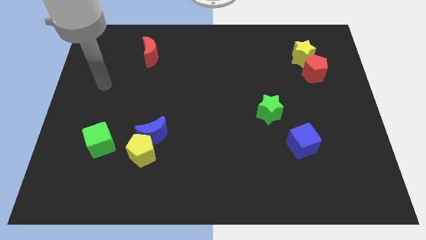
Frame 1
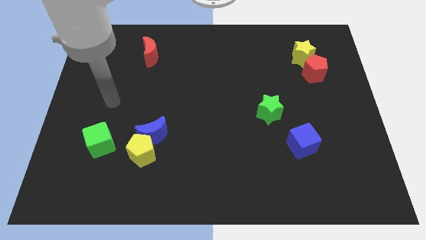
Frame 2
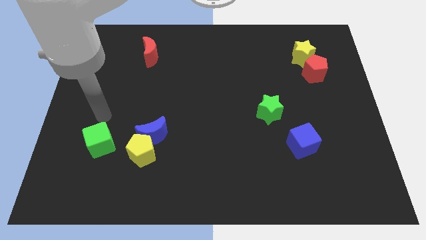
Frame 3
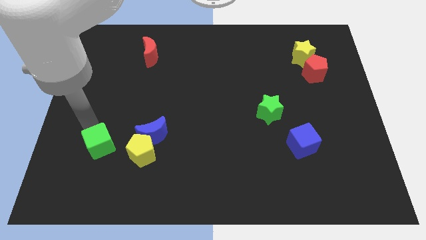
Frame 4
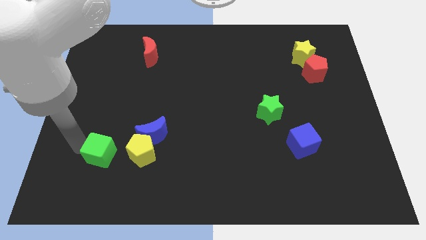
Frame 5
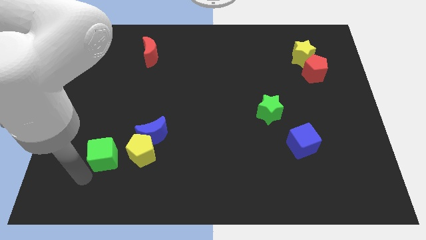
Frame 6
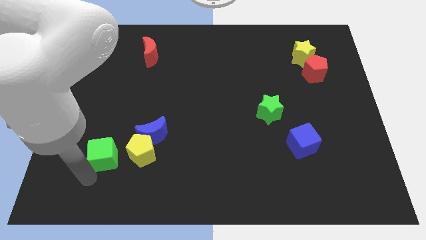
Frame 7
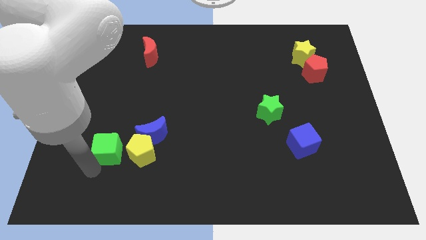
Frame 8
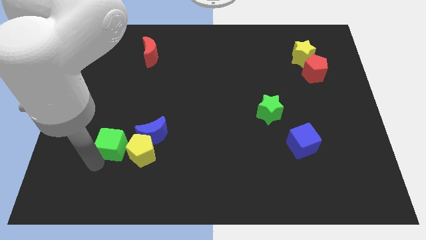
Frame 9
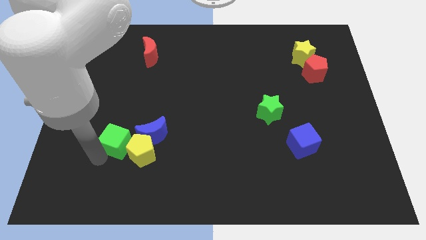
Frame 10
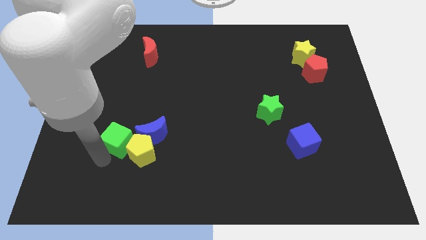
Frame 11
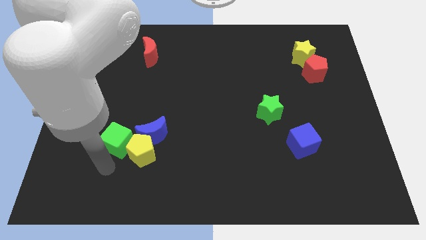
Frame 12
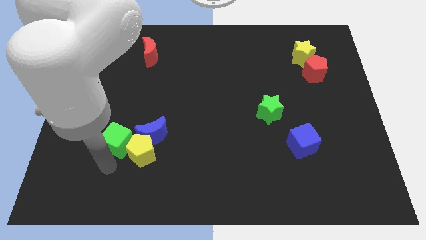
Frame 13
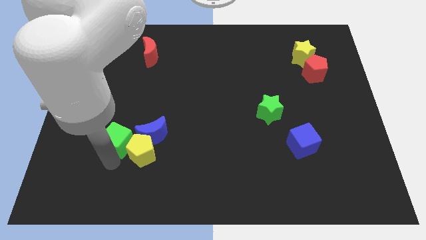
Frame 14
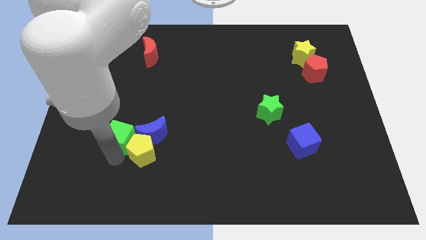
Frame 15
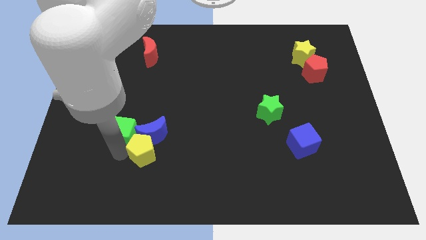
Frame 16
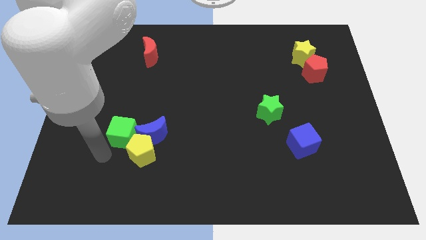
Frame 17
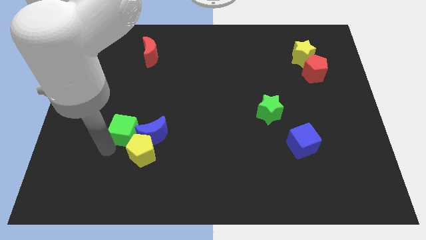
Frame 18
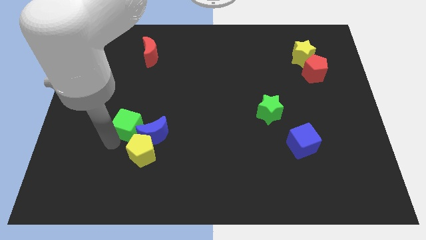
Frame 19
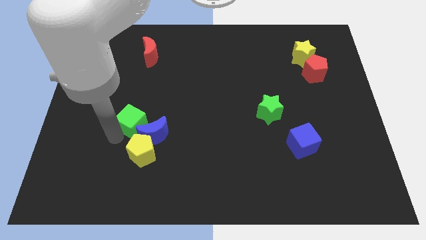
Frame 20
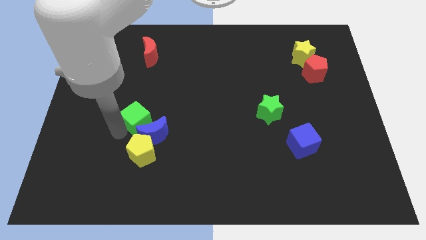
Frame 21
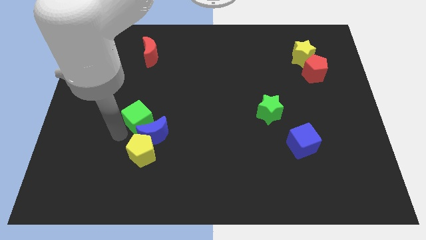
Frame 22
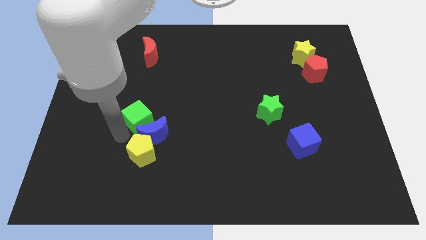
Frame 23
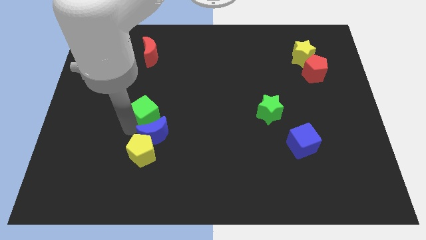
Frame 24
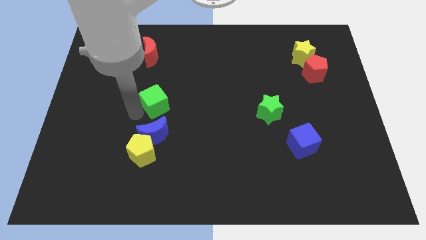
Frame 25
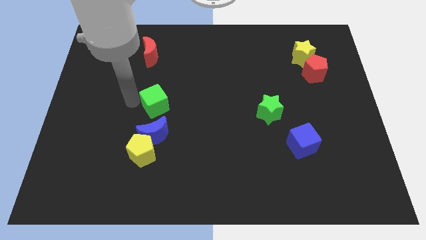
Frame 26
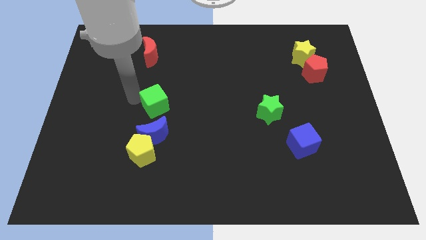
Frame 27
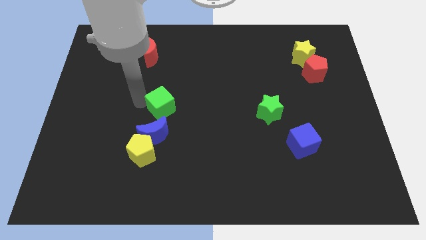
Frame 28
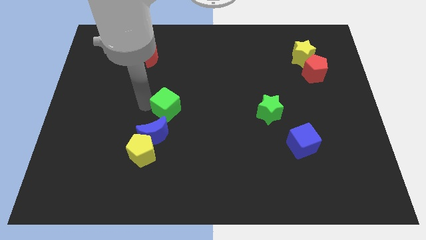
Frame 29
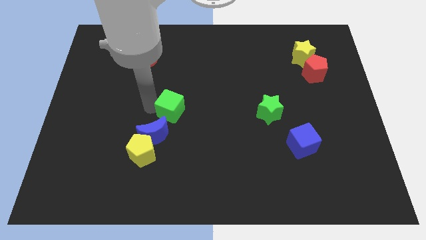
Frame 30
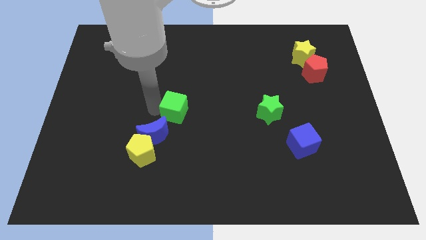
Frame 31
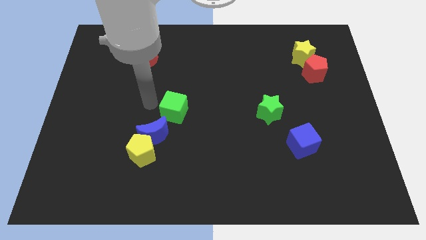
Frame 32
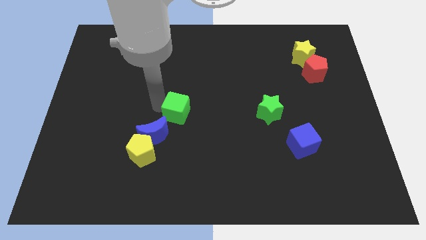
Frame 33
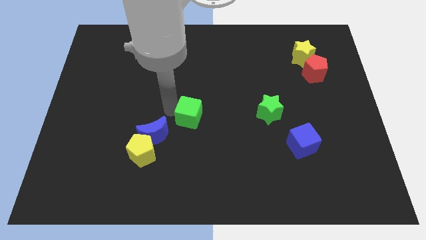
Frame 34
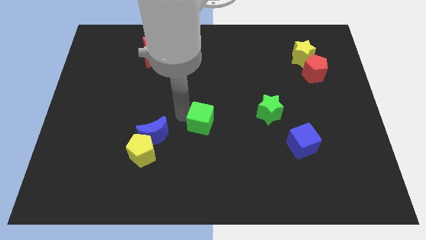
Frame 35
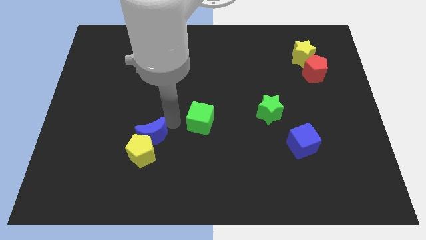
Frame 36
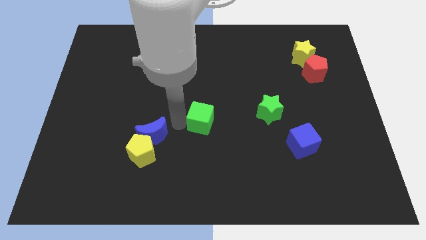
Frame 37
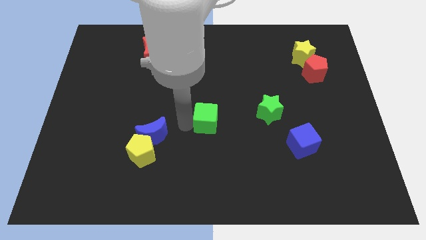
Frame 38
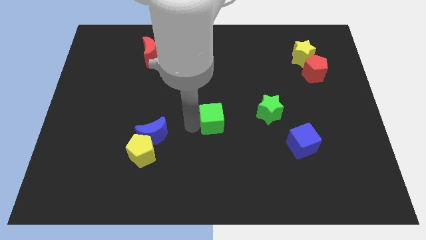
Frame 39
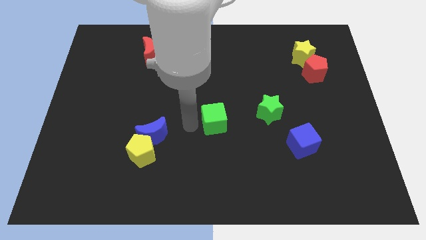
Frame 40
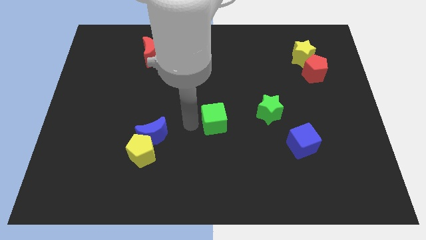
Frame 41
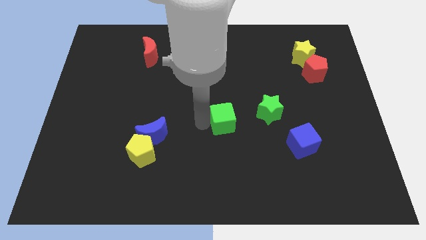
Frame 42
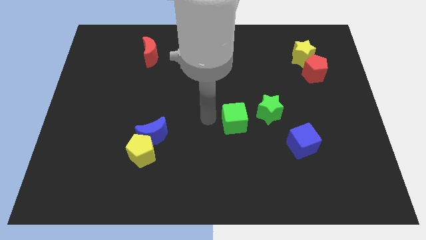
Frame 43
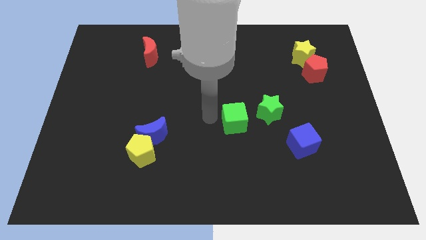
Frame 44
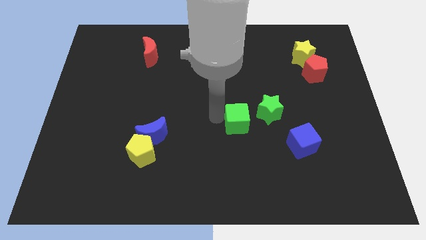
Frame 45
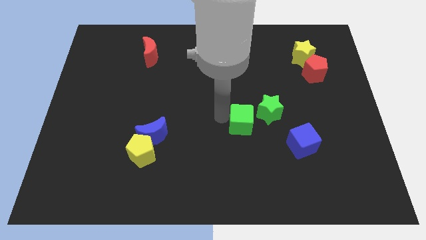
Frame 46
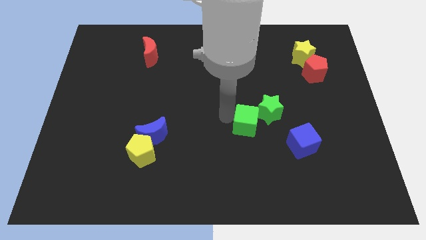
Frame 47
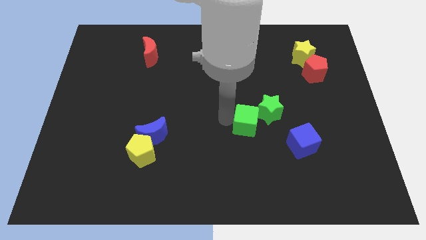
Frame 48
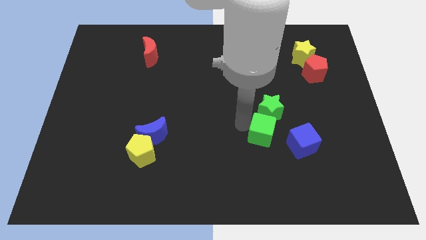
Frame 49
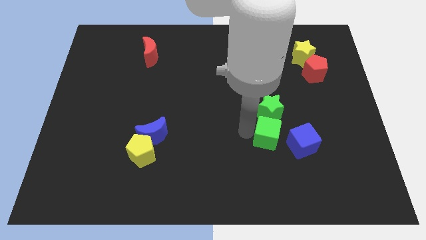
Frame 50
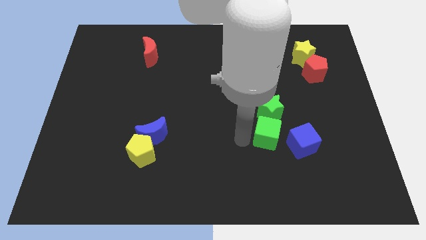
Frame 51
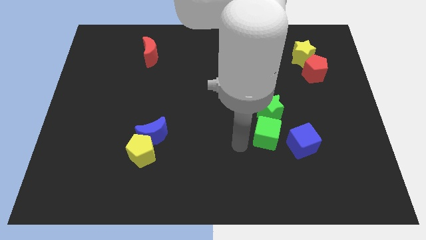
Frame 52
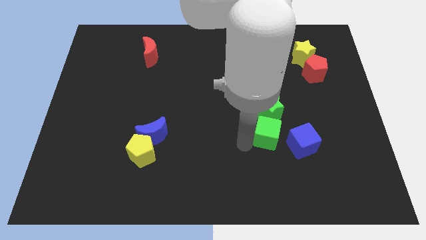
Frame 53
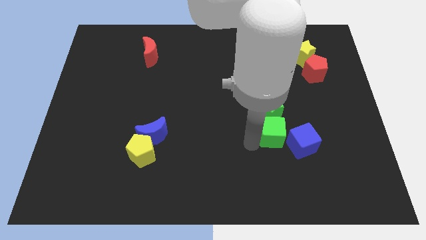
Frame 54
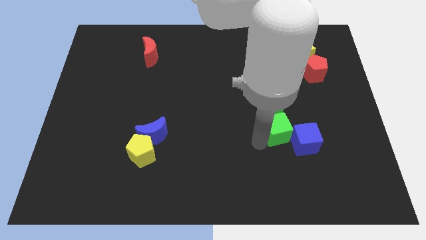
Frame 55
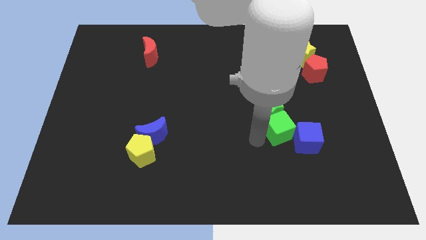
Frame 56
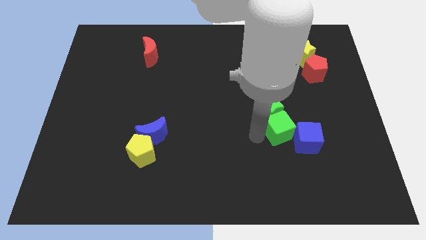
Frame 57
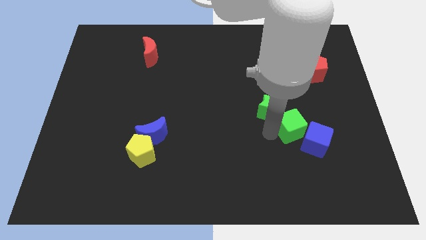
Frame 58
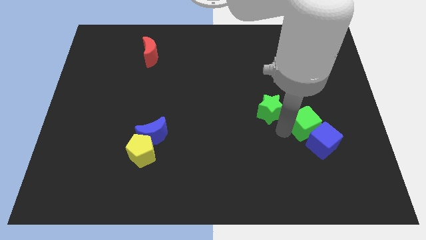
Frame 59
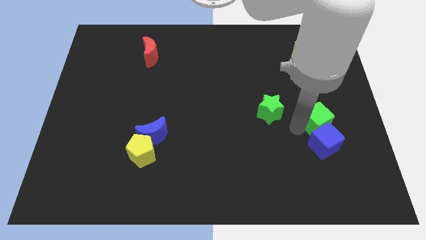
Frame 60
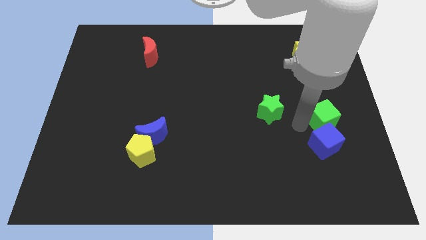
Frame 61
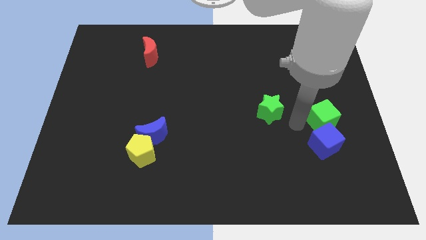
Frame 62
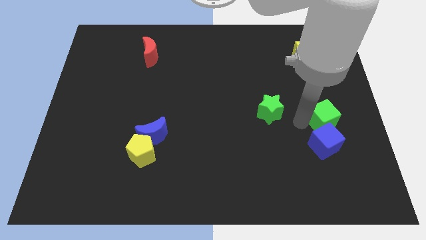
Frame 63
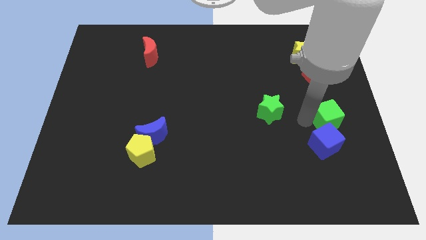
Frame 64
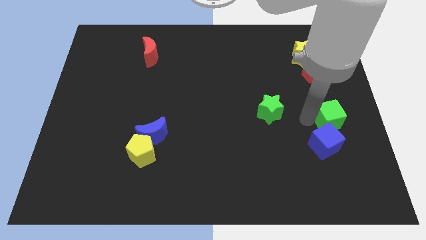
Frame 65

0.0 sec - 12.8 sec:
put the green cube to the right side
